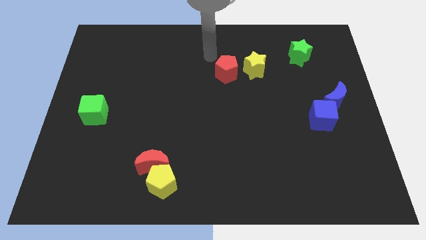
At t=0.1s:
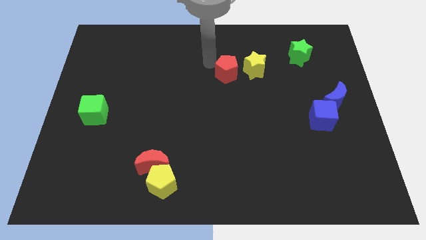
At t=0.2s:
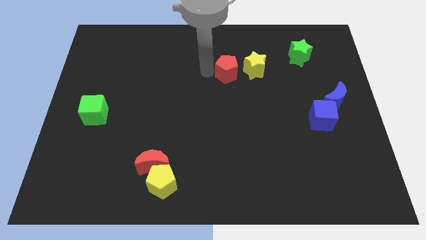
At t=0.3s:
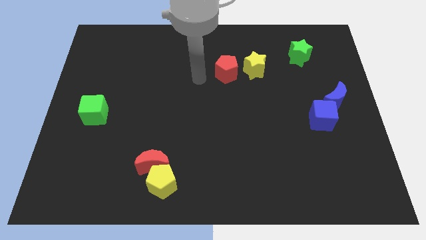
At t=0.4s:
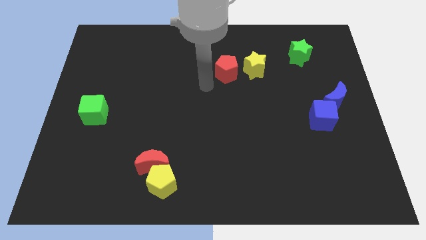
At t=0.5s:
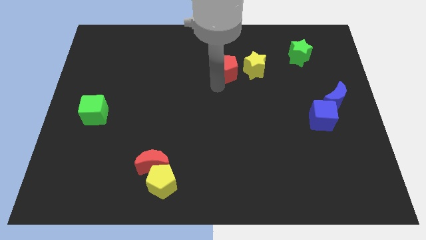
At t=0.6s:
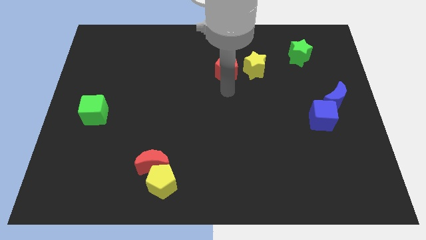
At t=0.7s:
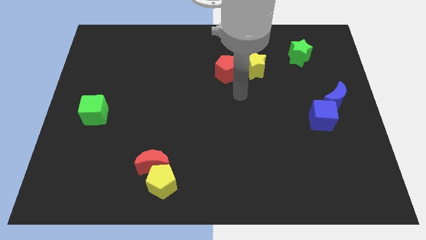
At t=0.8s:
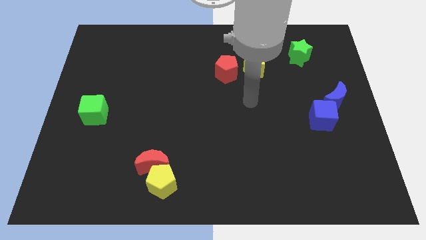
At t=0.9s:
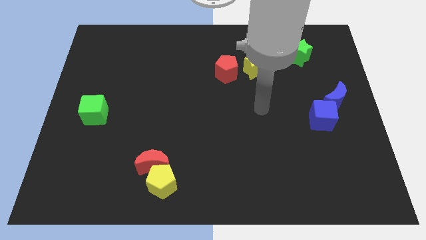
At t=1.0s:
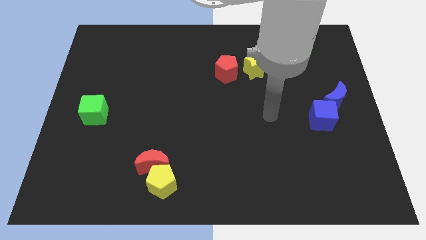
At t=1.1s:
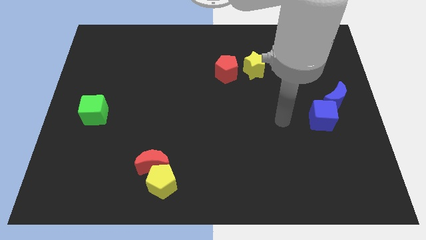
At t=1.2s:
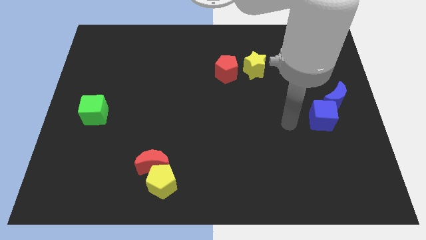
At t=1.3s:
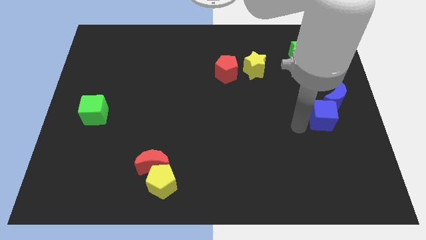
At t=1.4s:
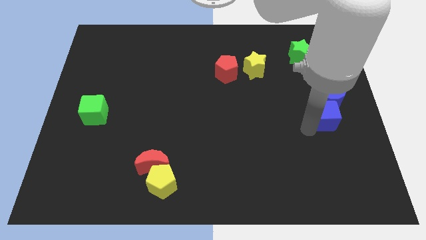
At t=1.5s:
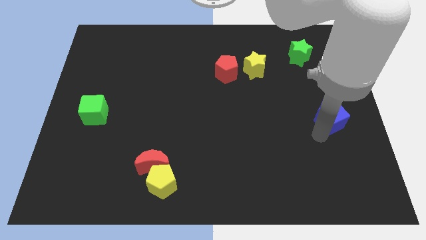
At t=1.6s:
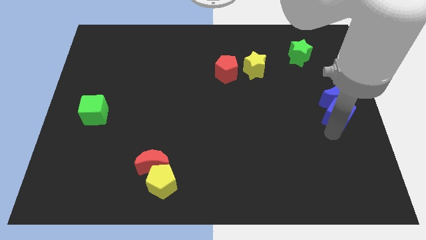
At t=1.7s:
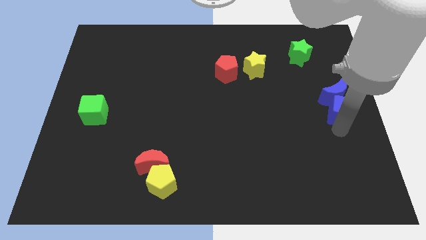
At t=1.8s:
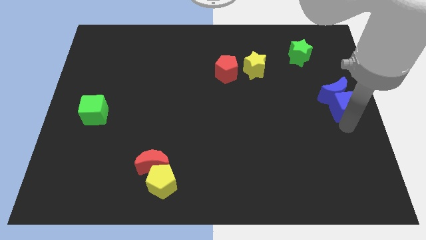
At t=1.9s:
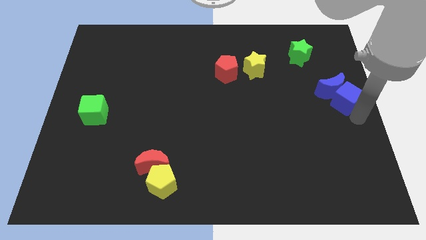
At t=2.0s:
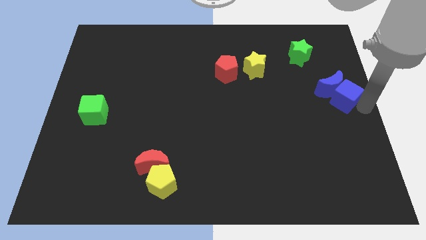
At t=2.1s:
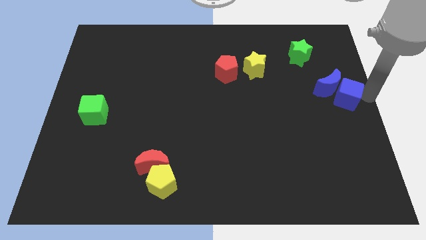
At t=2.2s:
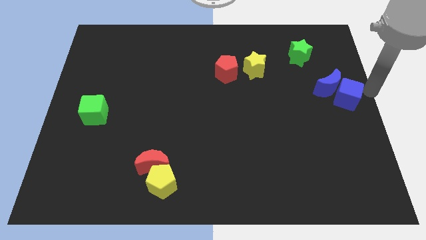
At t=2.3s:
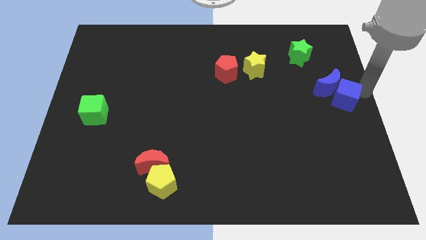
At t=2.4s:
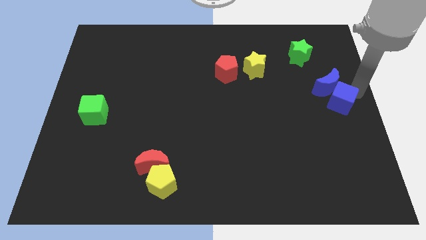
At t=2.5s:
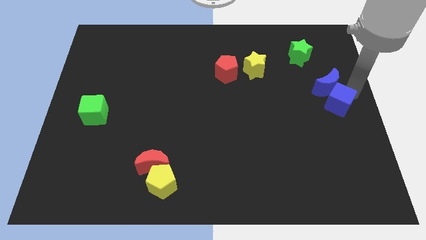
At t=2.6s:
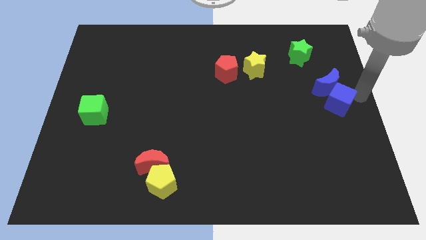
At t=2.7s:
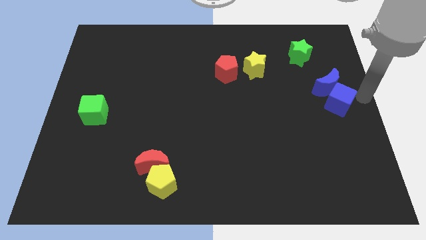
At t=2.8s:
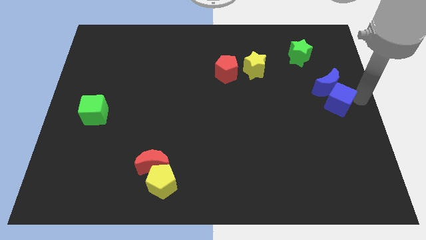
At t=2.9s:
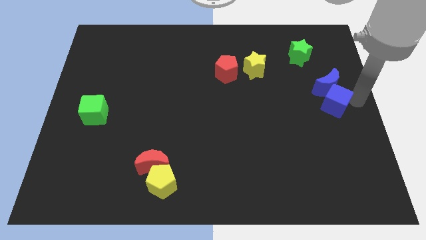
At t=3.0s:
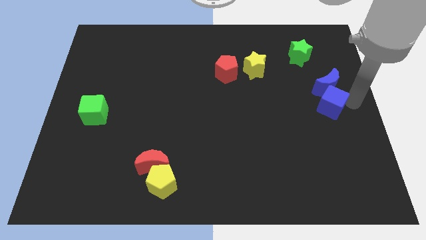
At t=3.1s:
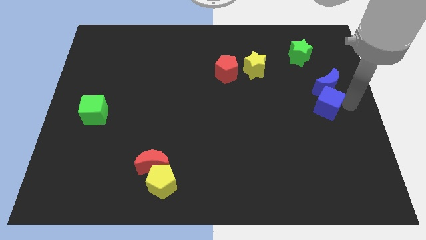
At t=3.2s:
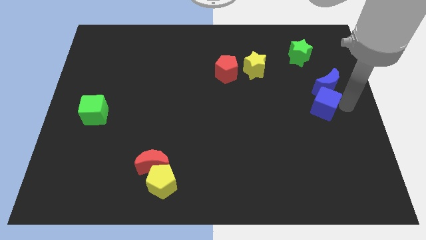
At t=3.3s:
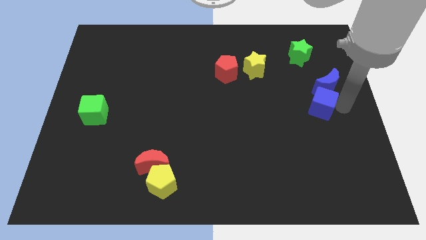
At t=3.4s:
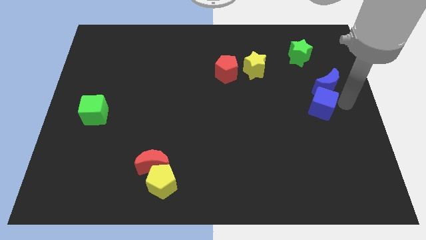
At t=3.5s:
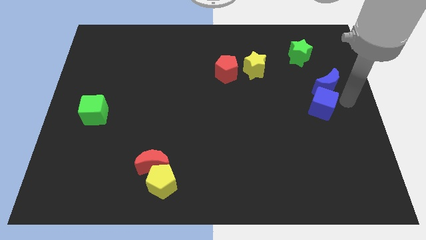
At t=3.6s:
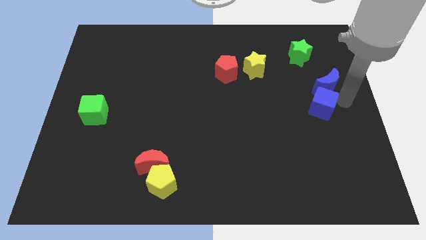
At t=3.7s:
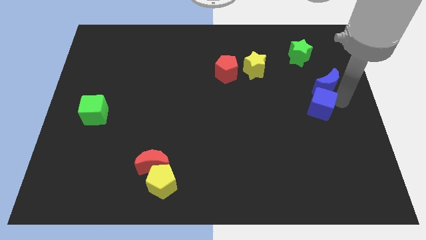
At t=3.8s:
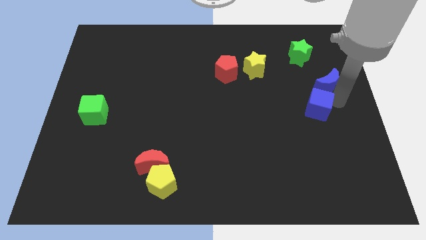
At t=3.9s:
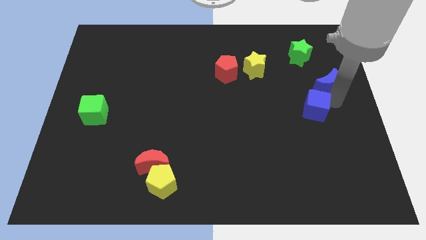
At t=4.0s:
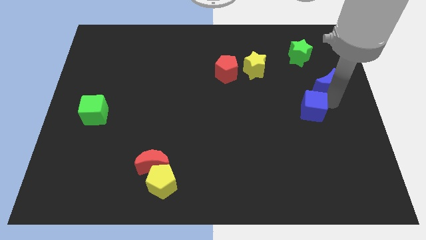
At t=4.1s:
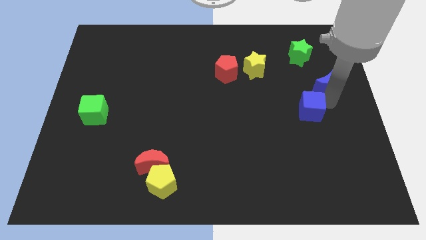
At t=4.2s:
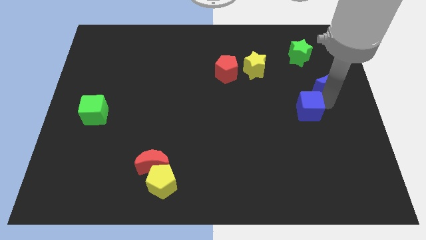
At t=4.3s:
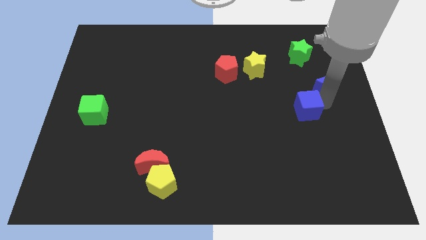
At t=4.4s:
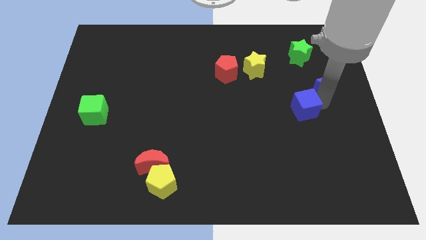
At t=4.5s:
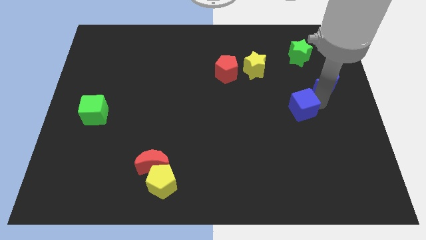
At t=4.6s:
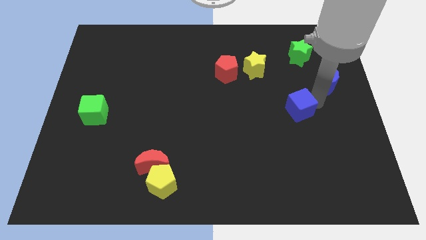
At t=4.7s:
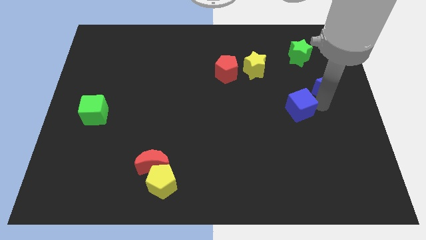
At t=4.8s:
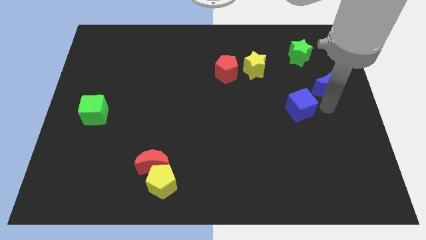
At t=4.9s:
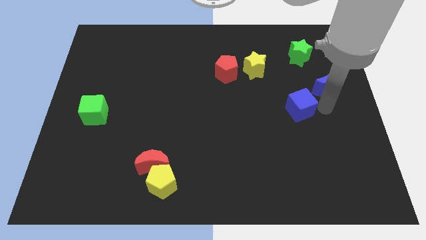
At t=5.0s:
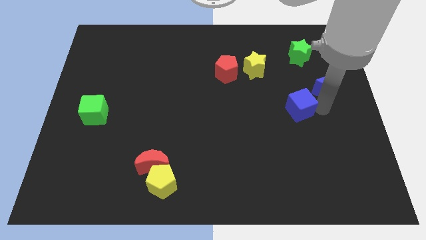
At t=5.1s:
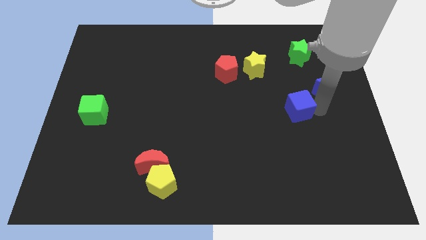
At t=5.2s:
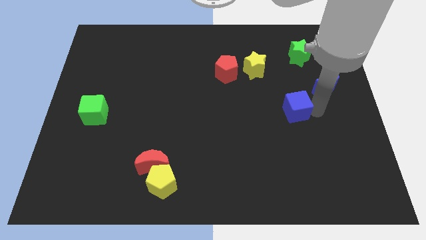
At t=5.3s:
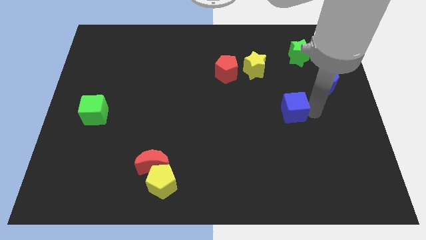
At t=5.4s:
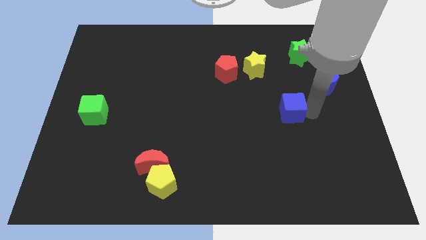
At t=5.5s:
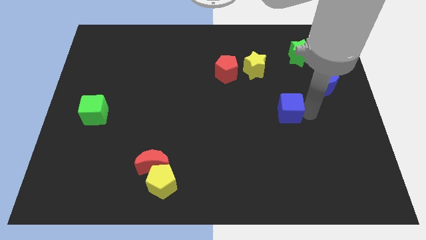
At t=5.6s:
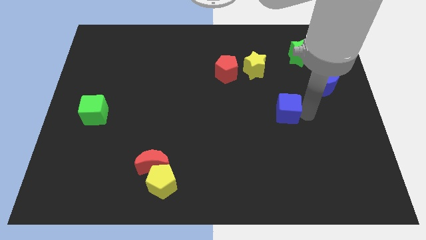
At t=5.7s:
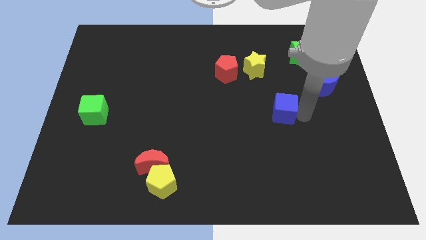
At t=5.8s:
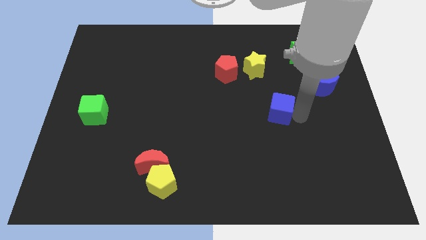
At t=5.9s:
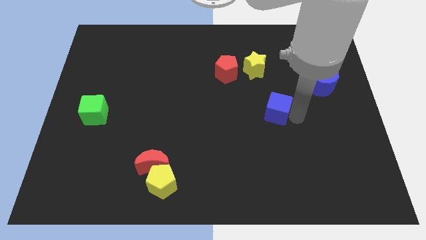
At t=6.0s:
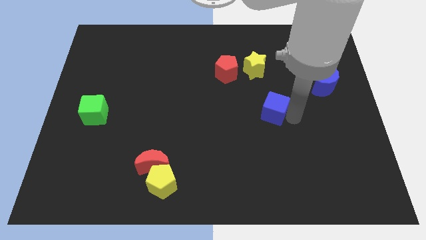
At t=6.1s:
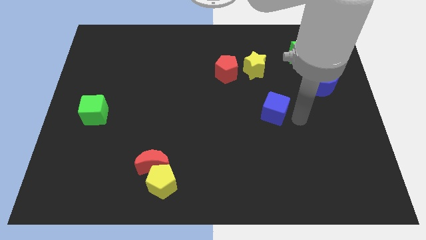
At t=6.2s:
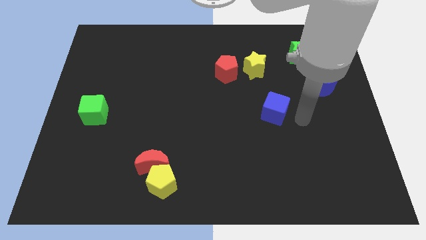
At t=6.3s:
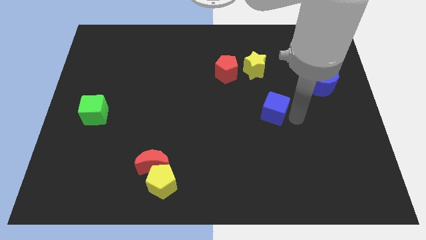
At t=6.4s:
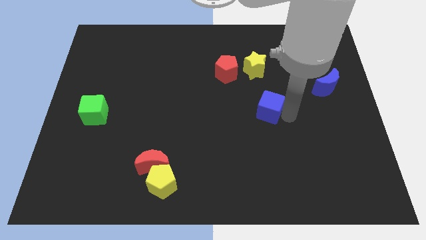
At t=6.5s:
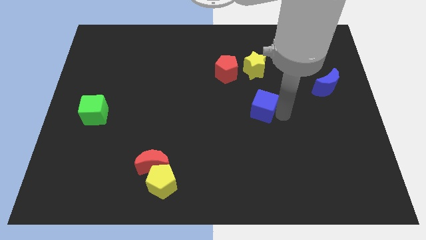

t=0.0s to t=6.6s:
slide the blue cube to the middle

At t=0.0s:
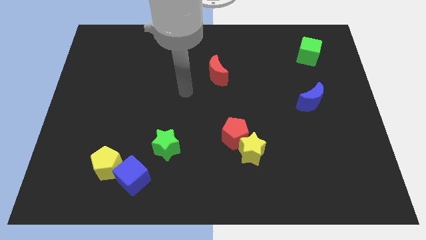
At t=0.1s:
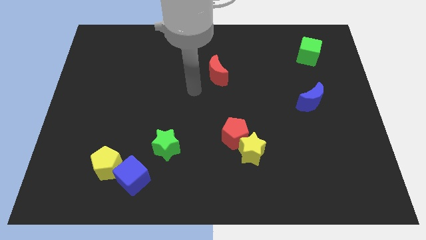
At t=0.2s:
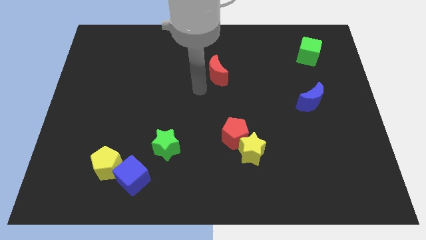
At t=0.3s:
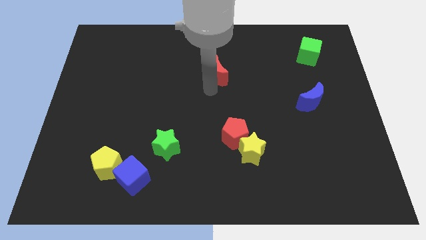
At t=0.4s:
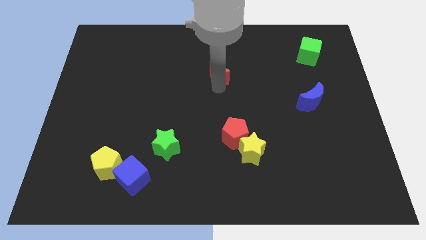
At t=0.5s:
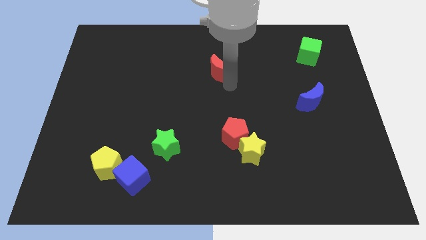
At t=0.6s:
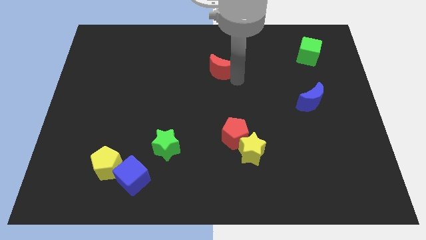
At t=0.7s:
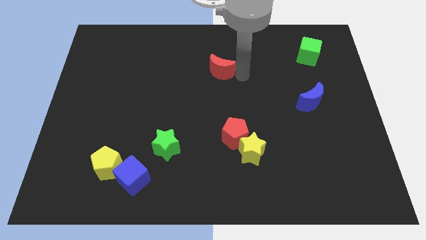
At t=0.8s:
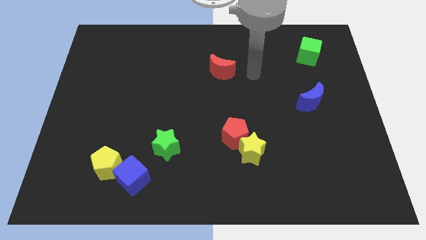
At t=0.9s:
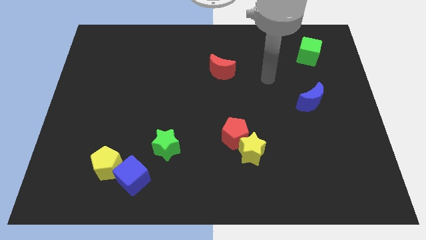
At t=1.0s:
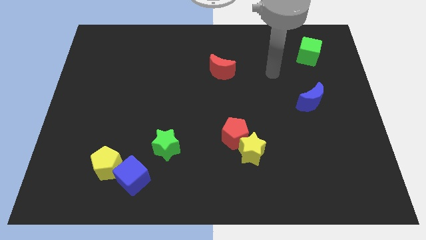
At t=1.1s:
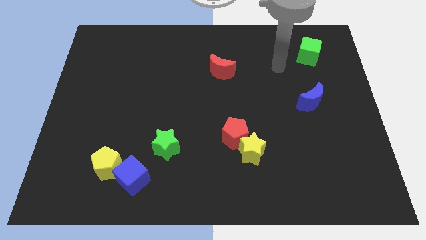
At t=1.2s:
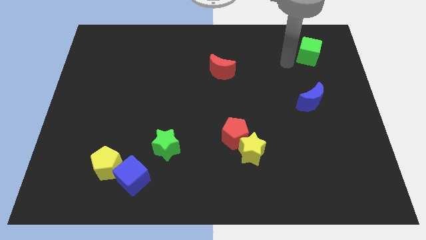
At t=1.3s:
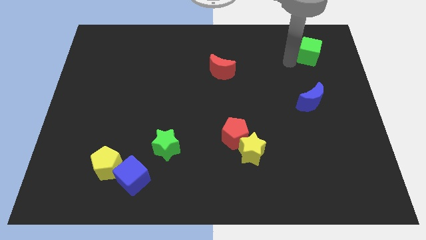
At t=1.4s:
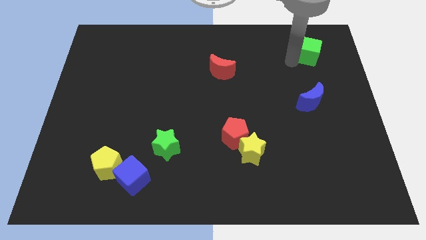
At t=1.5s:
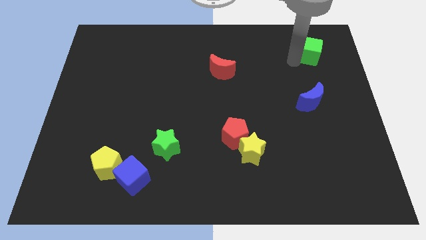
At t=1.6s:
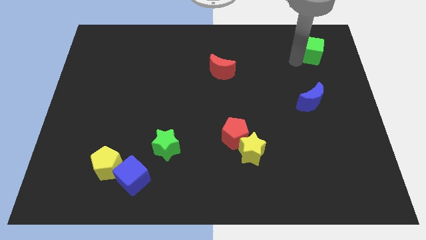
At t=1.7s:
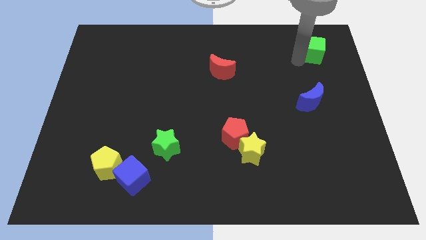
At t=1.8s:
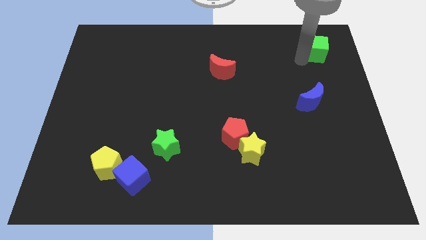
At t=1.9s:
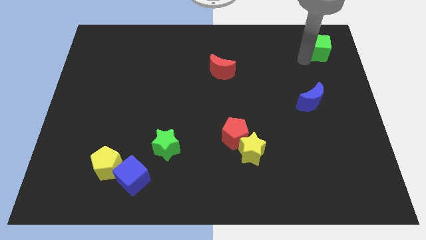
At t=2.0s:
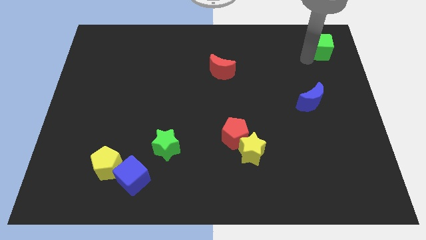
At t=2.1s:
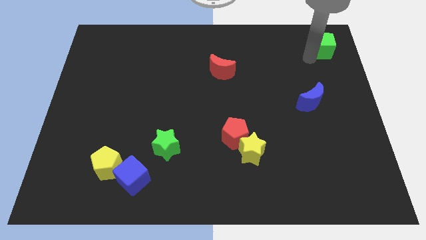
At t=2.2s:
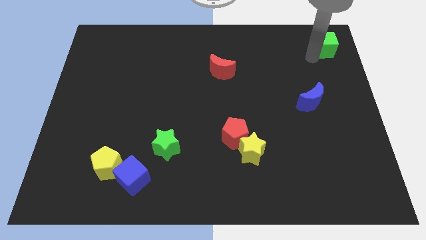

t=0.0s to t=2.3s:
push the green cube to the top right
